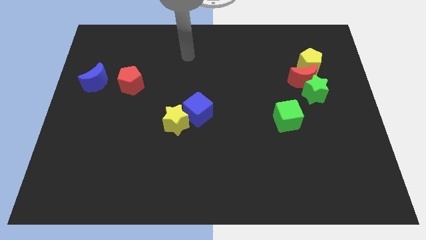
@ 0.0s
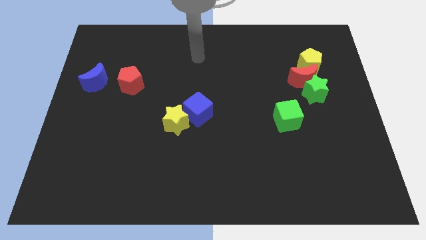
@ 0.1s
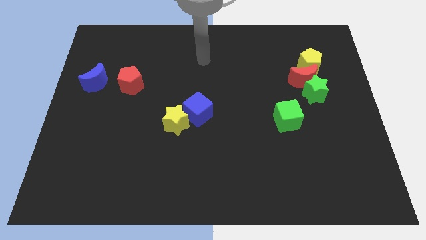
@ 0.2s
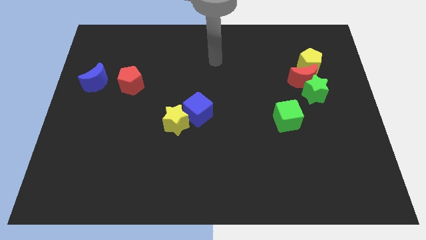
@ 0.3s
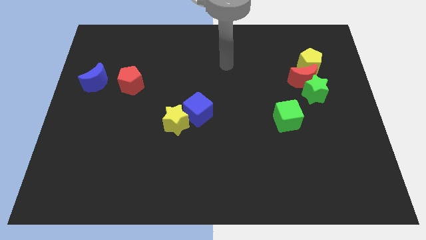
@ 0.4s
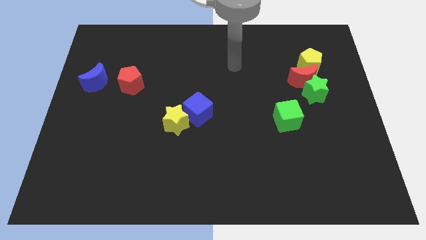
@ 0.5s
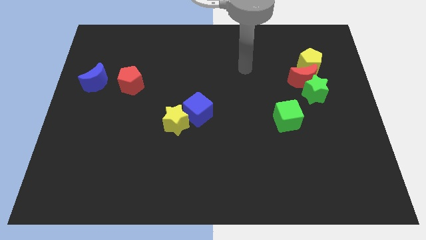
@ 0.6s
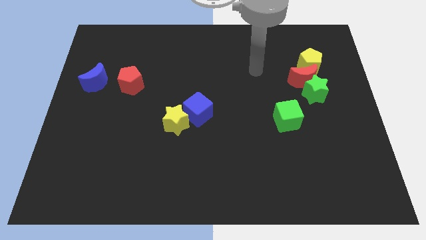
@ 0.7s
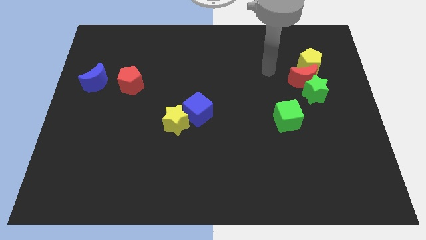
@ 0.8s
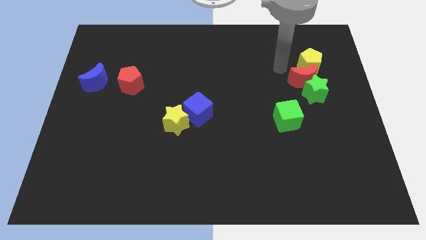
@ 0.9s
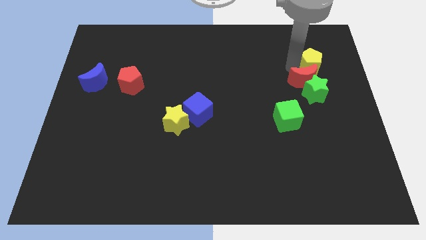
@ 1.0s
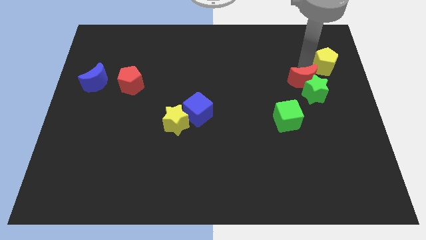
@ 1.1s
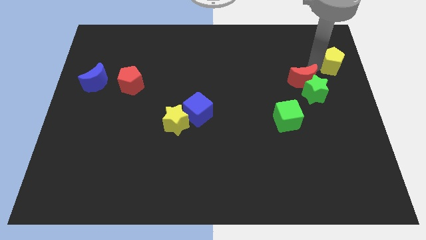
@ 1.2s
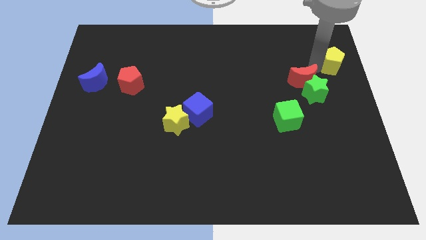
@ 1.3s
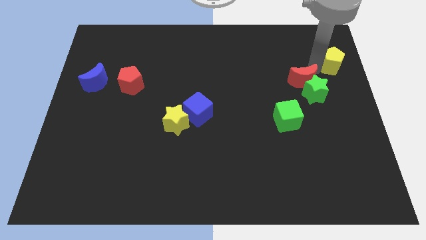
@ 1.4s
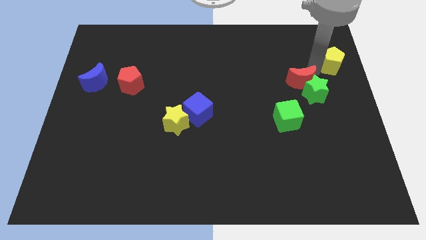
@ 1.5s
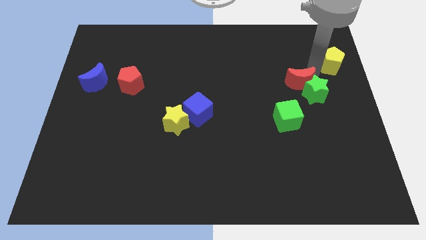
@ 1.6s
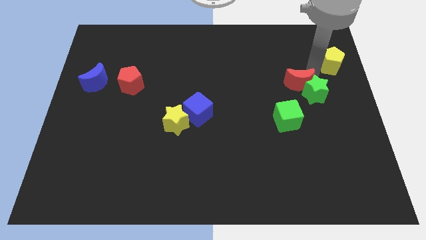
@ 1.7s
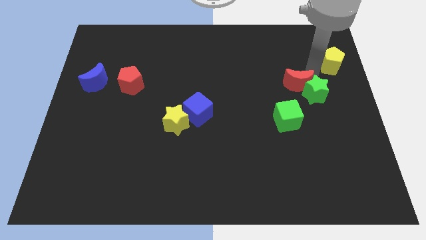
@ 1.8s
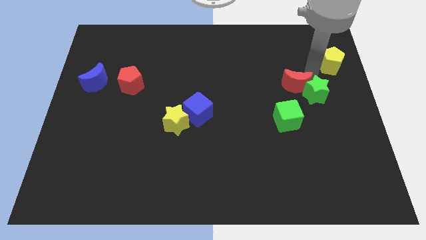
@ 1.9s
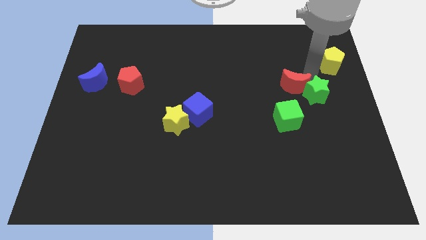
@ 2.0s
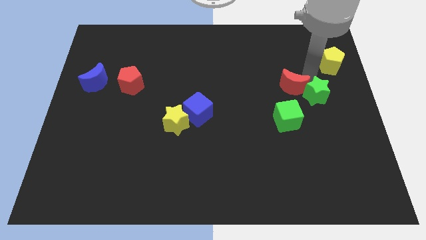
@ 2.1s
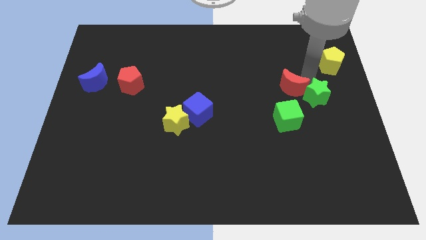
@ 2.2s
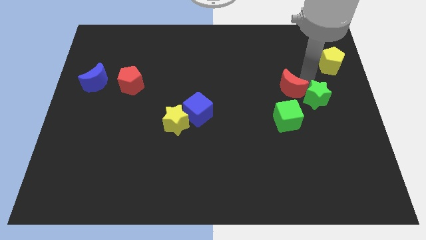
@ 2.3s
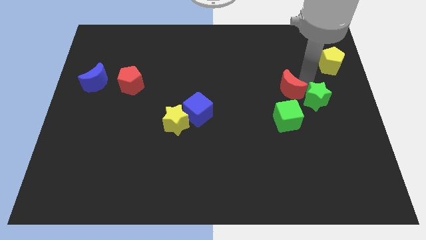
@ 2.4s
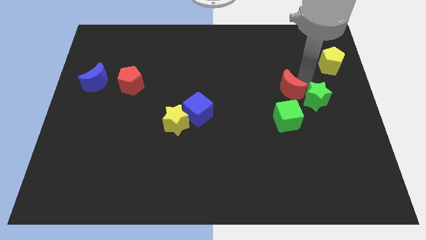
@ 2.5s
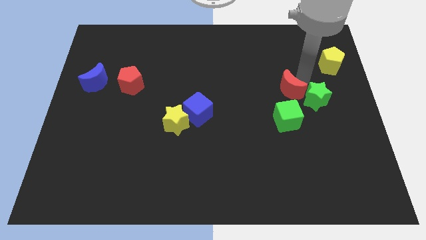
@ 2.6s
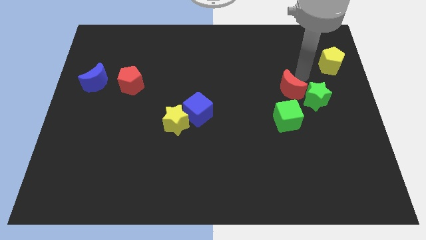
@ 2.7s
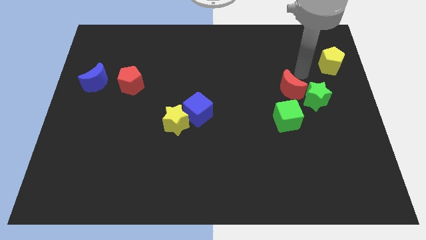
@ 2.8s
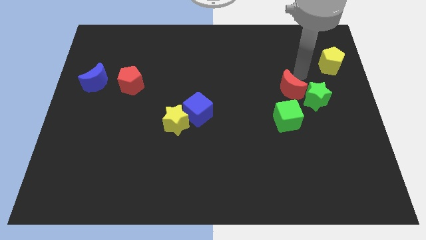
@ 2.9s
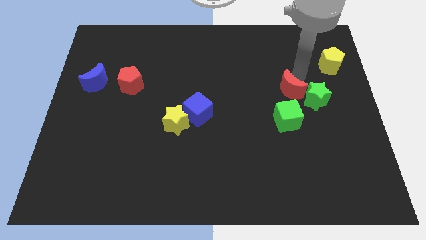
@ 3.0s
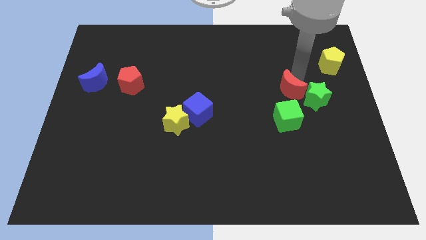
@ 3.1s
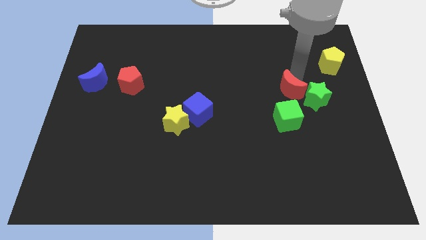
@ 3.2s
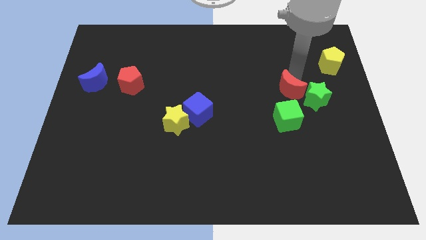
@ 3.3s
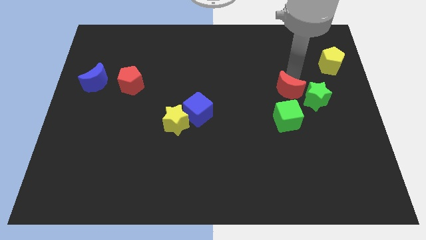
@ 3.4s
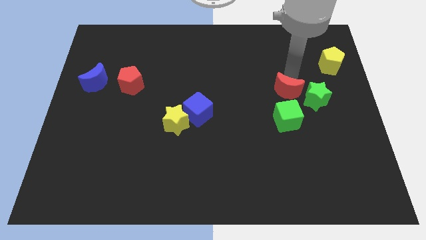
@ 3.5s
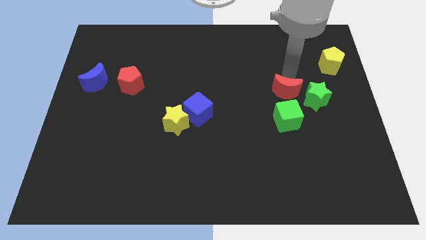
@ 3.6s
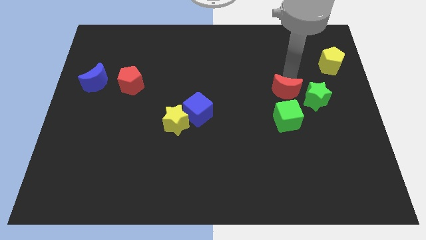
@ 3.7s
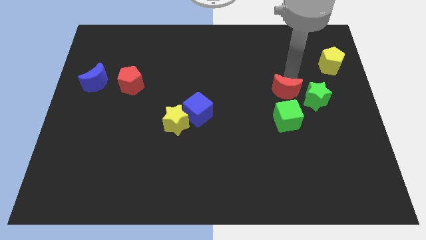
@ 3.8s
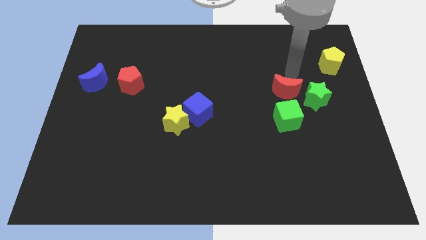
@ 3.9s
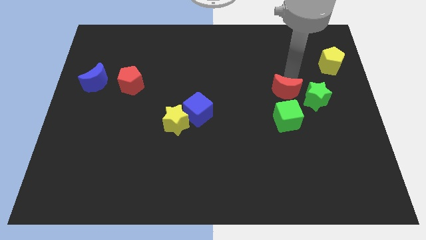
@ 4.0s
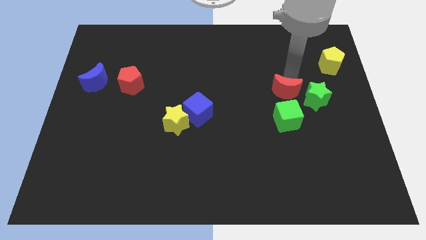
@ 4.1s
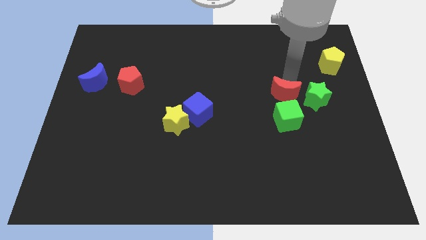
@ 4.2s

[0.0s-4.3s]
slide the red moon somewhat diagonally downwards and to the left

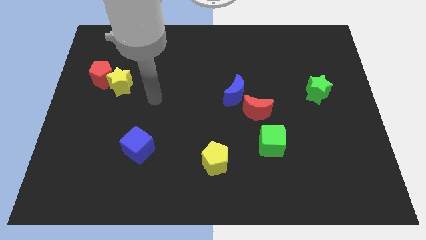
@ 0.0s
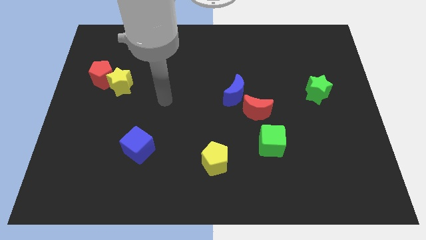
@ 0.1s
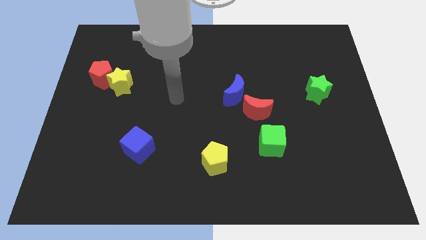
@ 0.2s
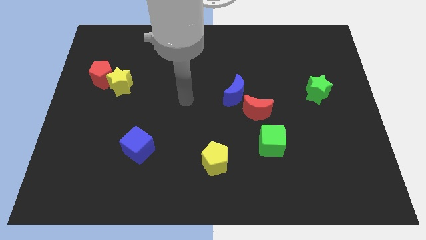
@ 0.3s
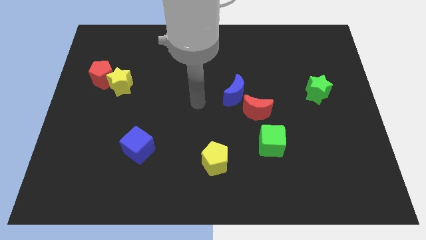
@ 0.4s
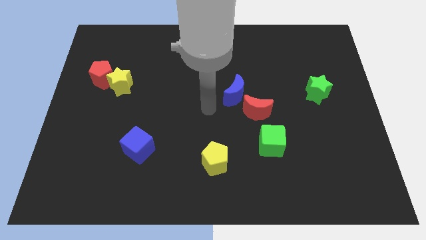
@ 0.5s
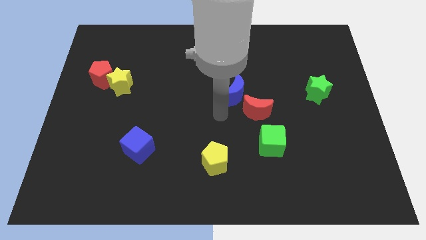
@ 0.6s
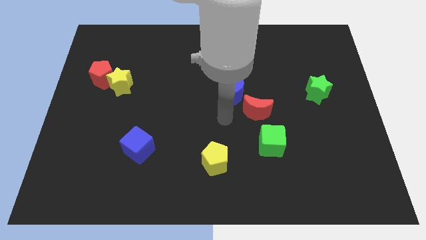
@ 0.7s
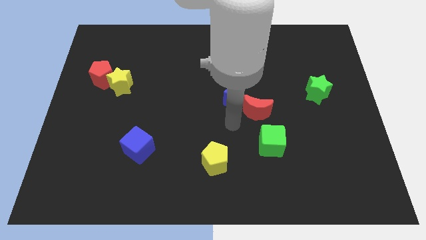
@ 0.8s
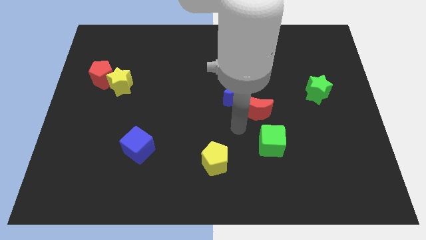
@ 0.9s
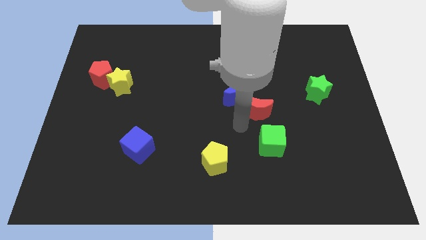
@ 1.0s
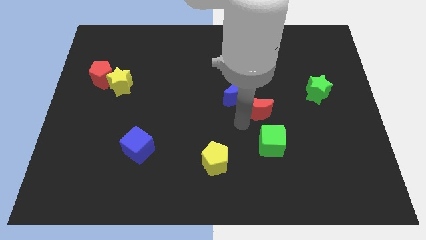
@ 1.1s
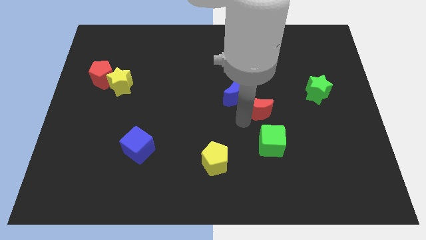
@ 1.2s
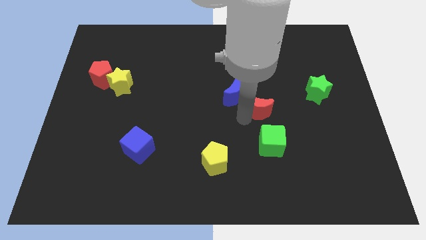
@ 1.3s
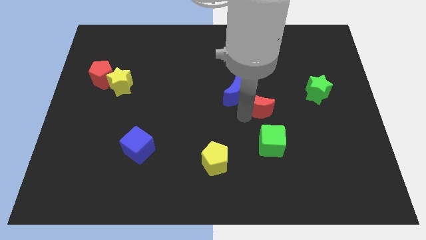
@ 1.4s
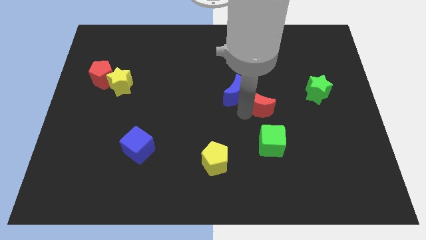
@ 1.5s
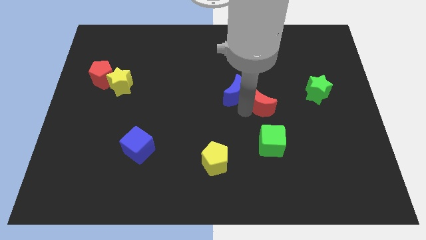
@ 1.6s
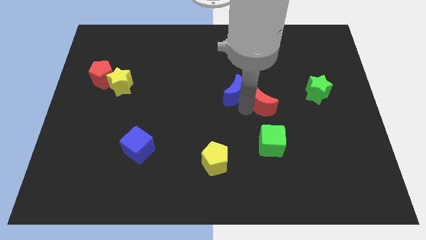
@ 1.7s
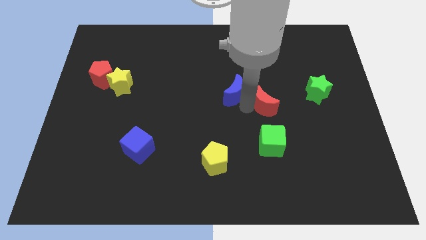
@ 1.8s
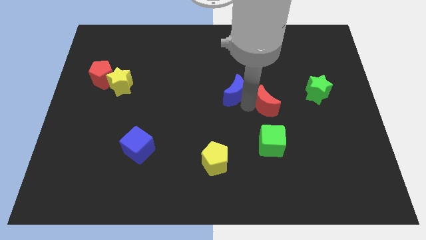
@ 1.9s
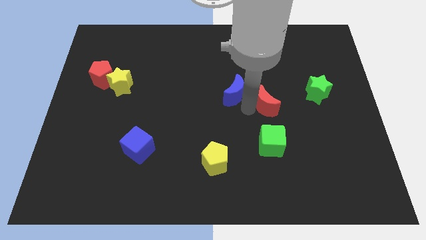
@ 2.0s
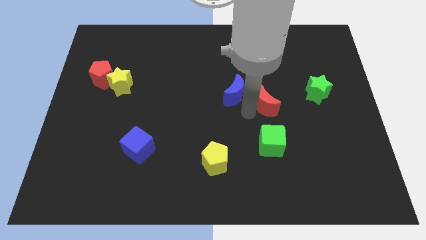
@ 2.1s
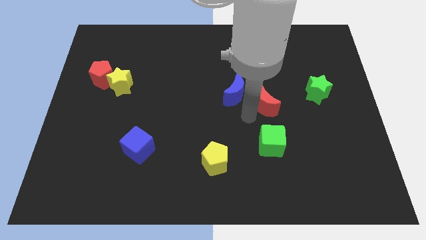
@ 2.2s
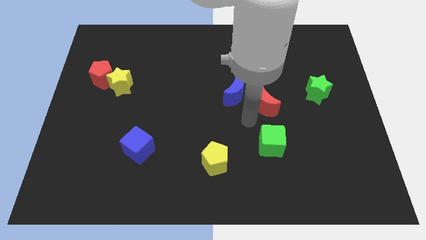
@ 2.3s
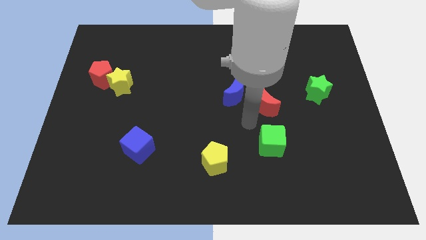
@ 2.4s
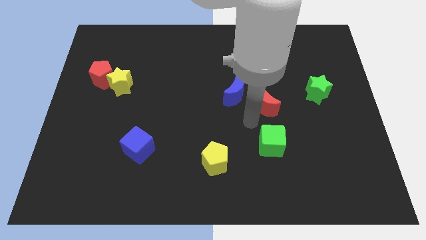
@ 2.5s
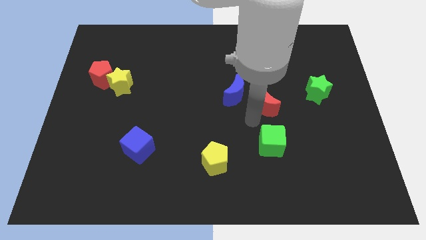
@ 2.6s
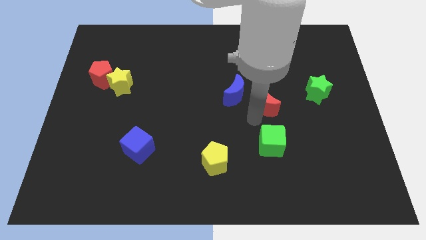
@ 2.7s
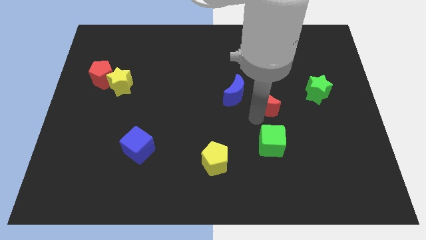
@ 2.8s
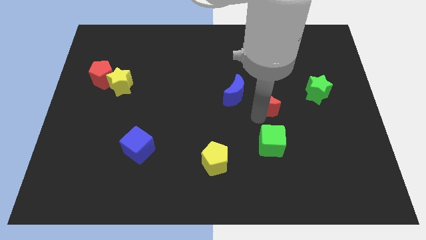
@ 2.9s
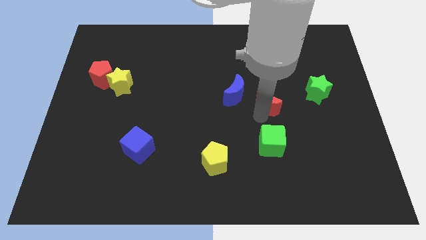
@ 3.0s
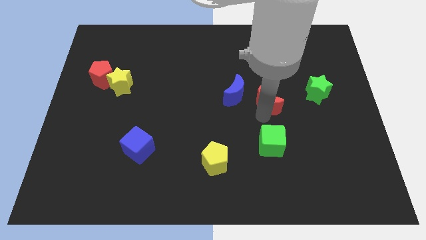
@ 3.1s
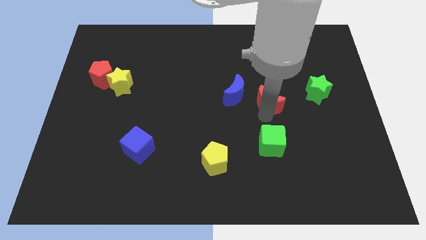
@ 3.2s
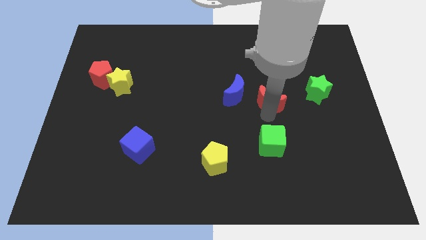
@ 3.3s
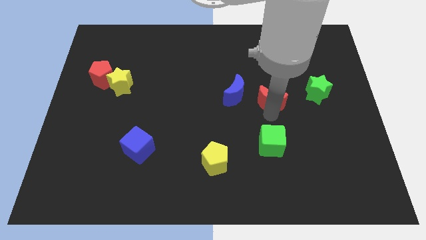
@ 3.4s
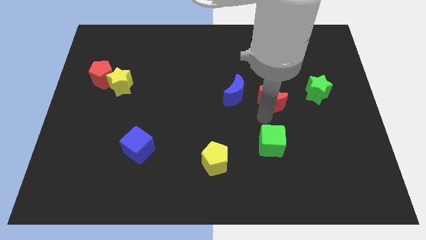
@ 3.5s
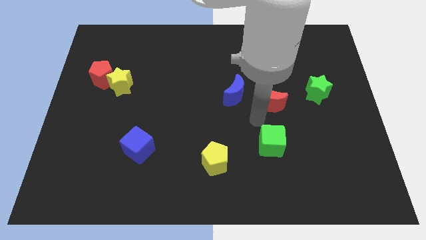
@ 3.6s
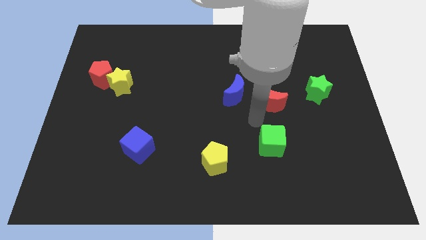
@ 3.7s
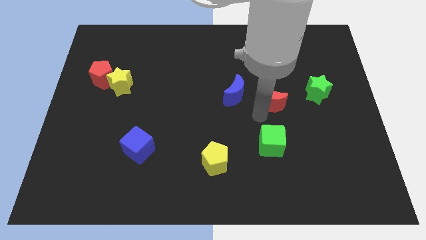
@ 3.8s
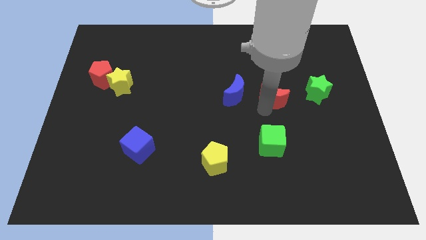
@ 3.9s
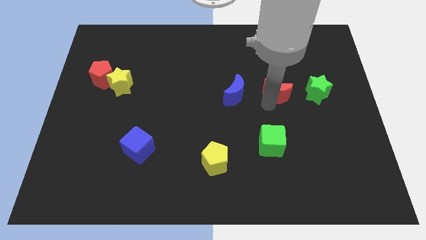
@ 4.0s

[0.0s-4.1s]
slightly move the red moon up and right
